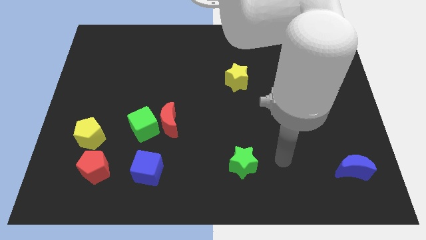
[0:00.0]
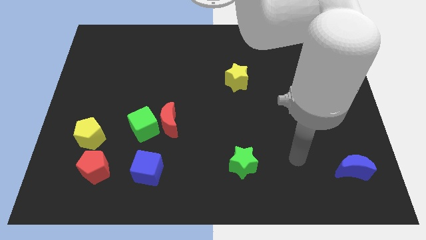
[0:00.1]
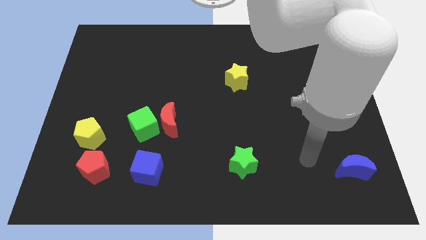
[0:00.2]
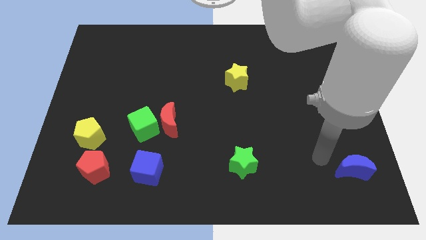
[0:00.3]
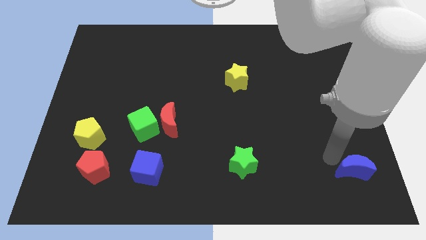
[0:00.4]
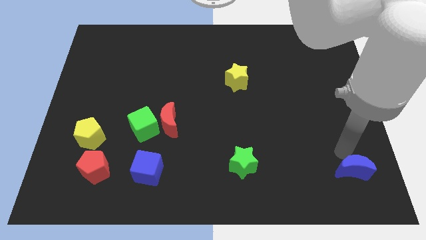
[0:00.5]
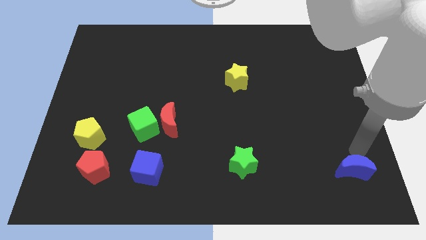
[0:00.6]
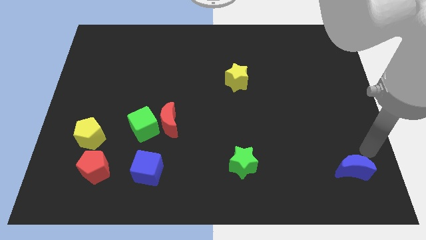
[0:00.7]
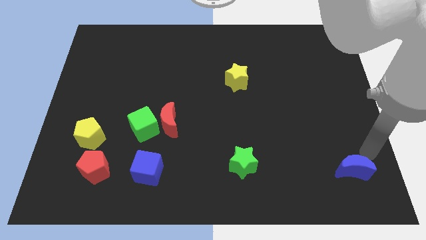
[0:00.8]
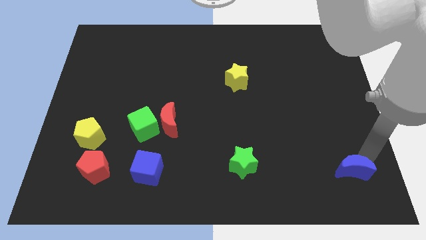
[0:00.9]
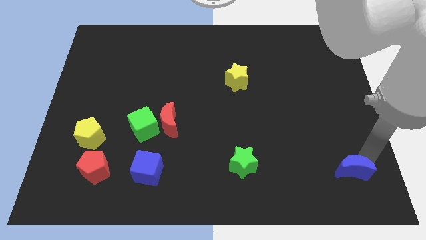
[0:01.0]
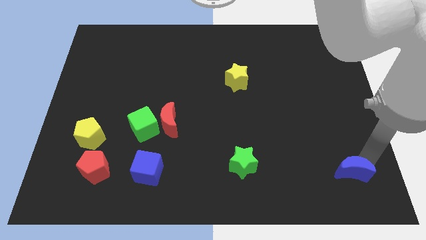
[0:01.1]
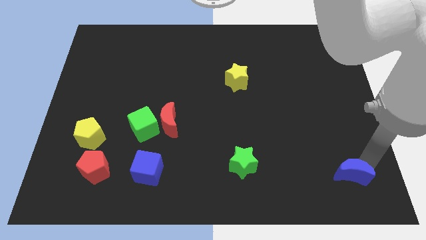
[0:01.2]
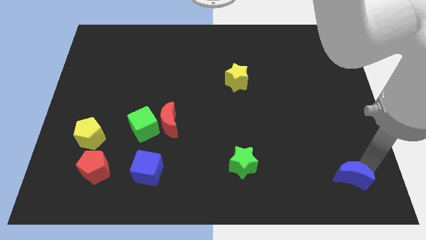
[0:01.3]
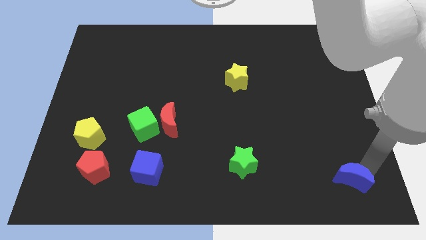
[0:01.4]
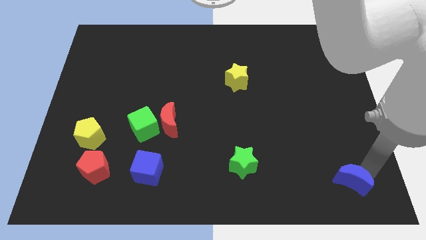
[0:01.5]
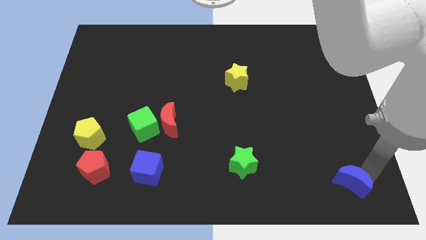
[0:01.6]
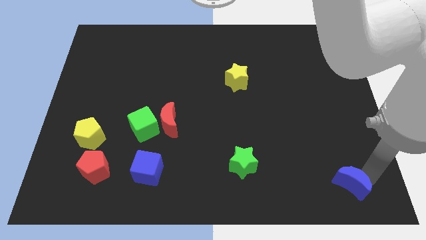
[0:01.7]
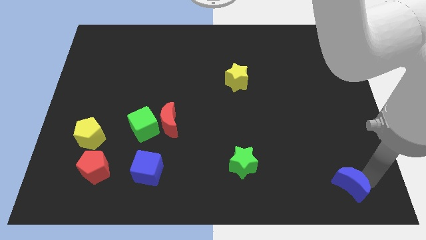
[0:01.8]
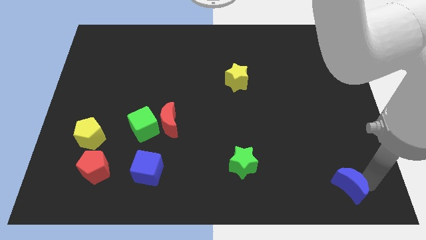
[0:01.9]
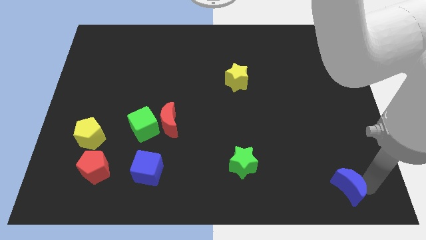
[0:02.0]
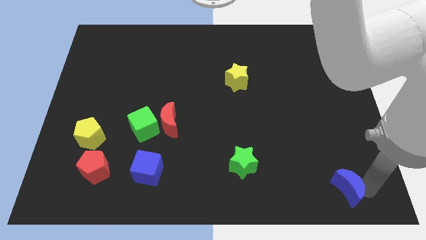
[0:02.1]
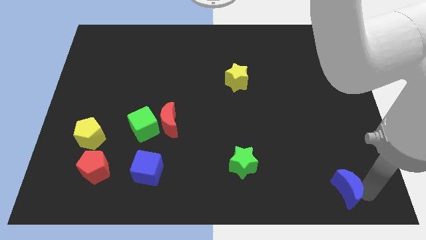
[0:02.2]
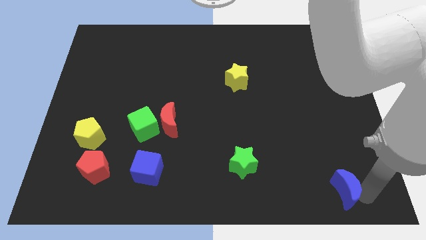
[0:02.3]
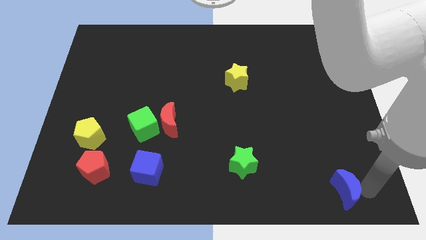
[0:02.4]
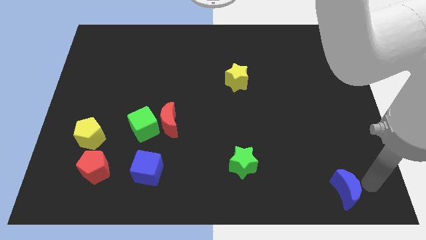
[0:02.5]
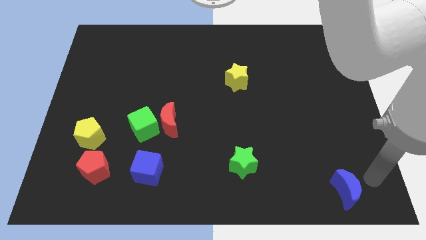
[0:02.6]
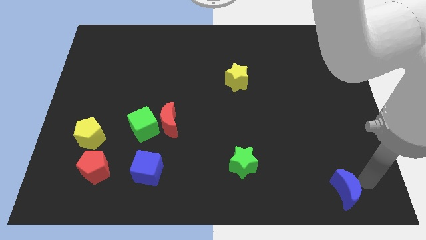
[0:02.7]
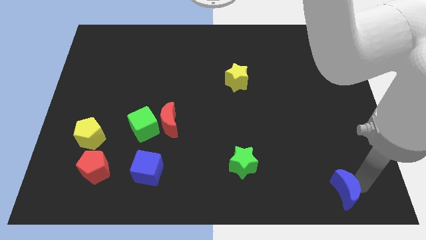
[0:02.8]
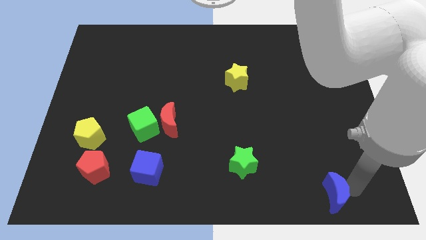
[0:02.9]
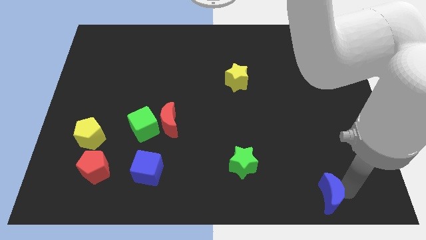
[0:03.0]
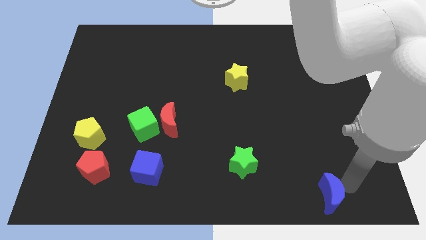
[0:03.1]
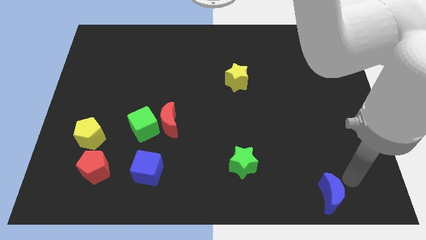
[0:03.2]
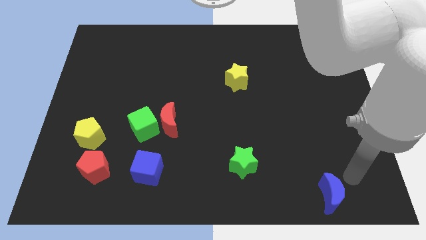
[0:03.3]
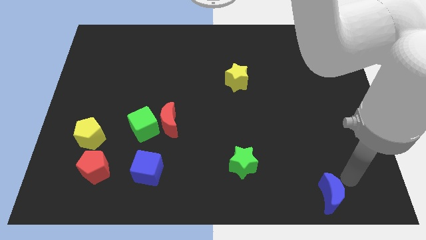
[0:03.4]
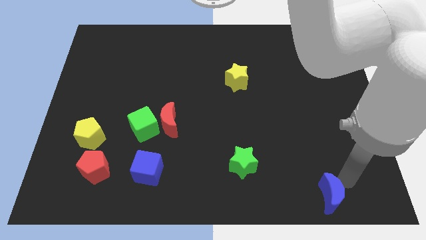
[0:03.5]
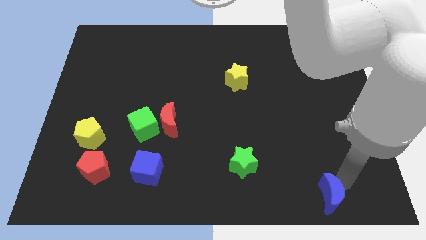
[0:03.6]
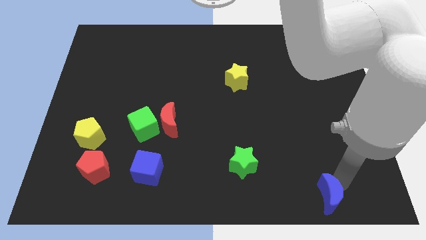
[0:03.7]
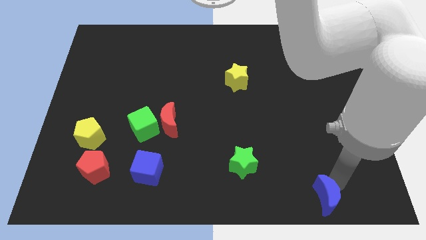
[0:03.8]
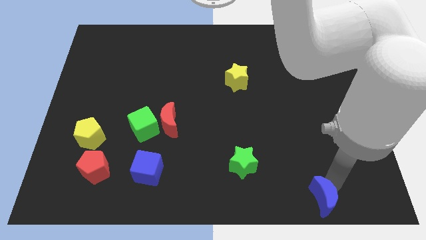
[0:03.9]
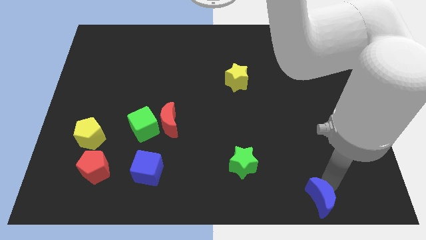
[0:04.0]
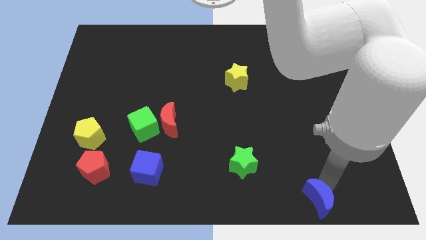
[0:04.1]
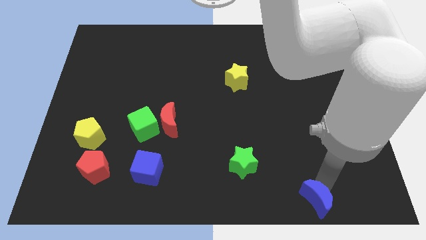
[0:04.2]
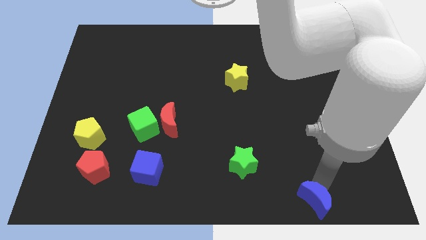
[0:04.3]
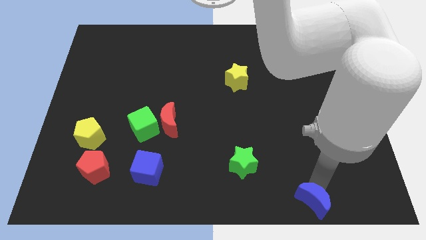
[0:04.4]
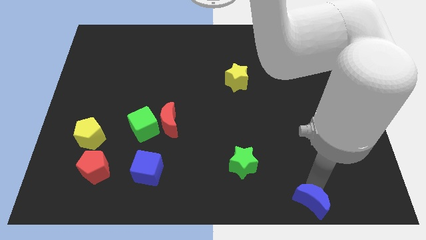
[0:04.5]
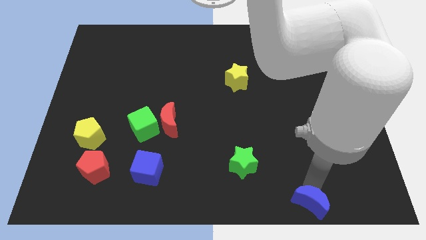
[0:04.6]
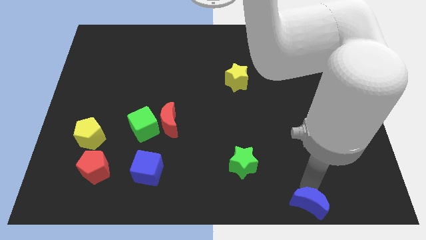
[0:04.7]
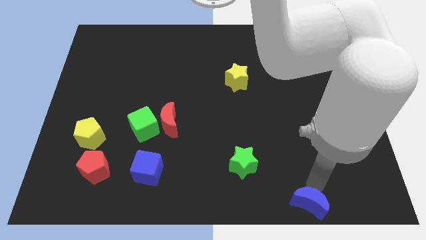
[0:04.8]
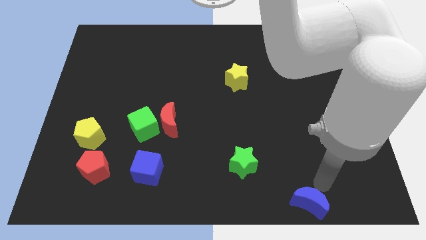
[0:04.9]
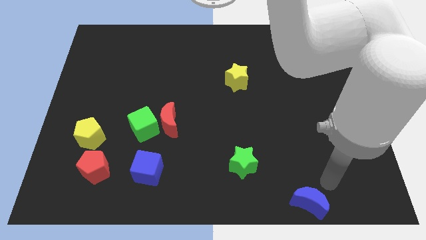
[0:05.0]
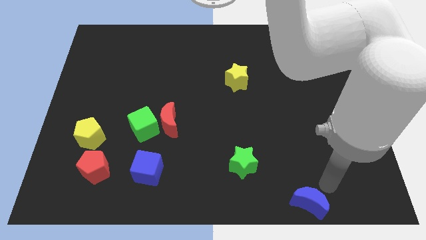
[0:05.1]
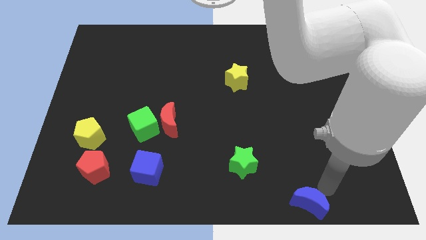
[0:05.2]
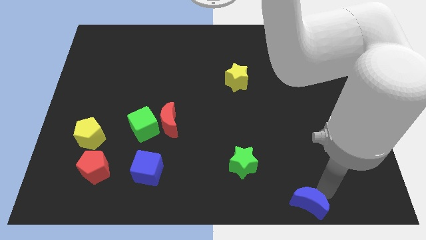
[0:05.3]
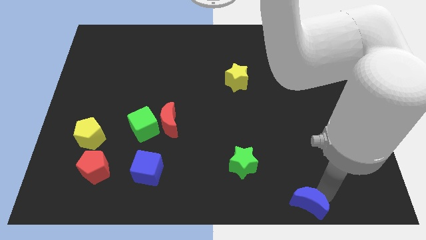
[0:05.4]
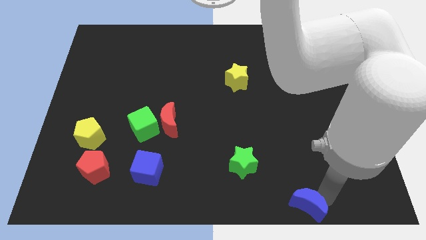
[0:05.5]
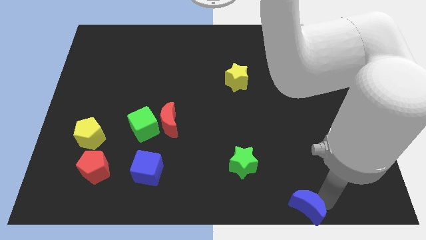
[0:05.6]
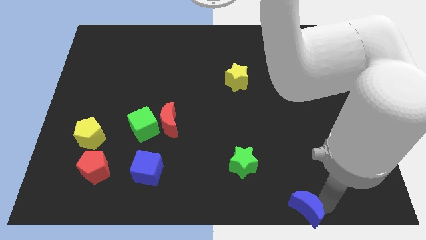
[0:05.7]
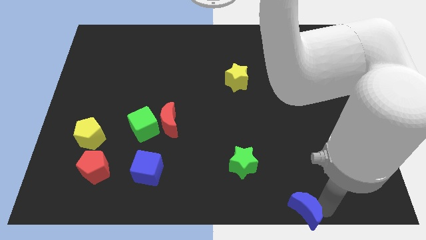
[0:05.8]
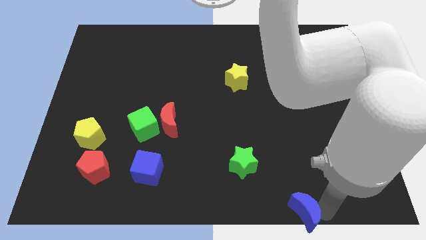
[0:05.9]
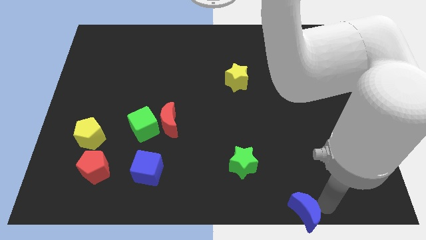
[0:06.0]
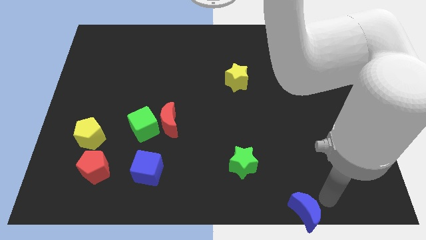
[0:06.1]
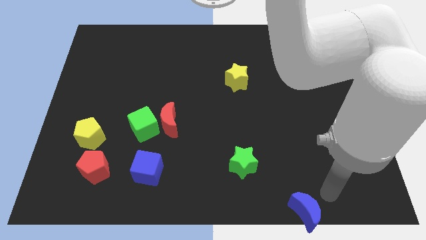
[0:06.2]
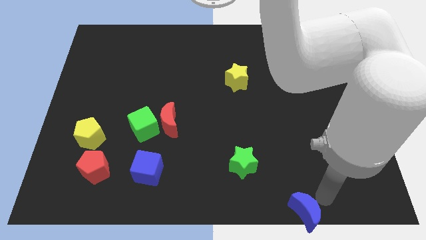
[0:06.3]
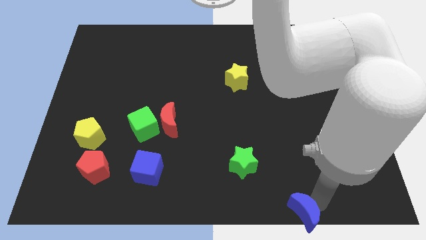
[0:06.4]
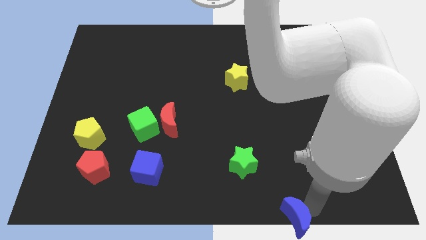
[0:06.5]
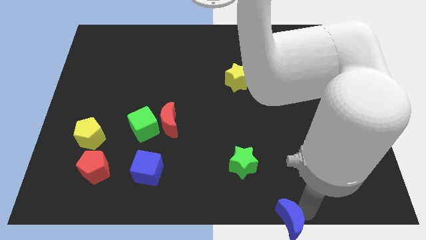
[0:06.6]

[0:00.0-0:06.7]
slide the blue moon to the bottom side
